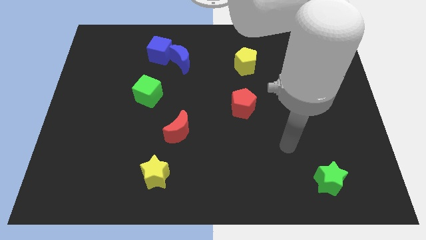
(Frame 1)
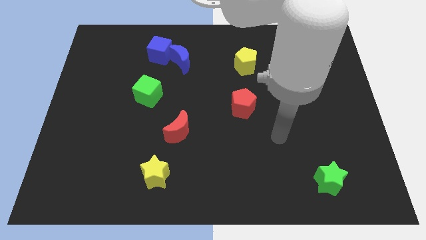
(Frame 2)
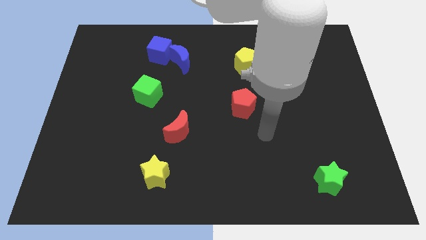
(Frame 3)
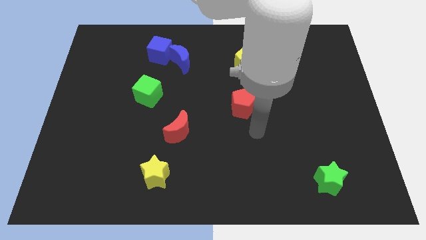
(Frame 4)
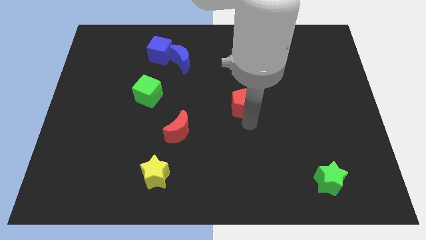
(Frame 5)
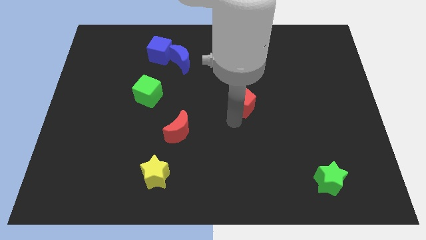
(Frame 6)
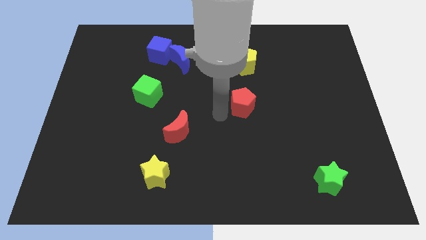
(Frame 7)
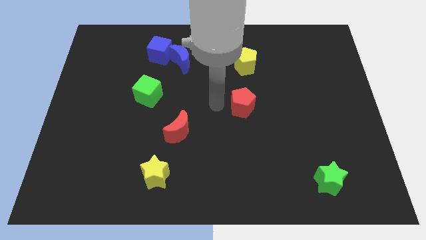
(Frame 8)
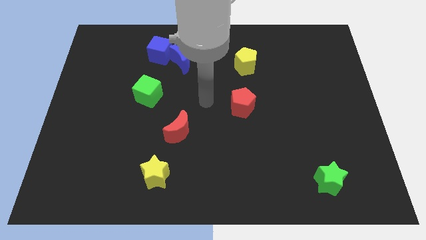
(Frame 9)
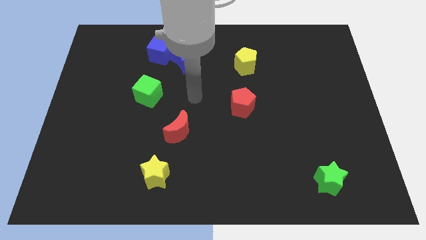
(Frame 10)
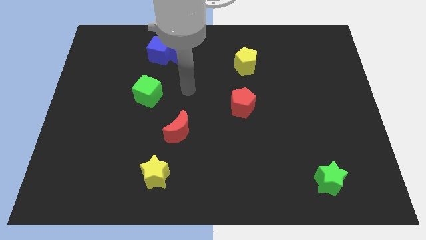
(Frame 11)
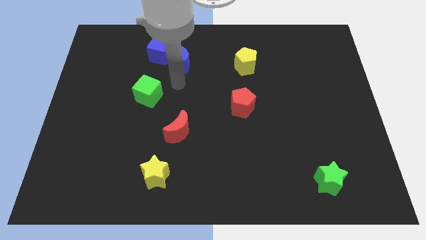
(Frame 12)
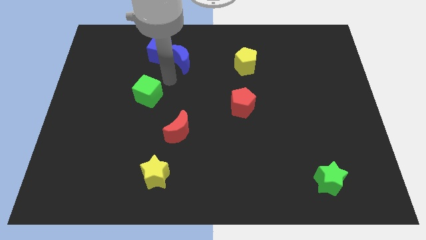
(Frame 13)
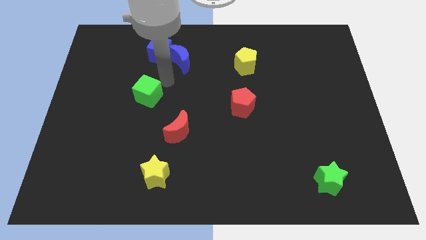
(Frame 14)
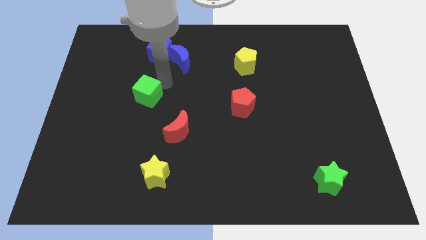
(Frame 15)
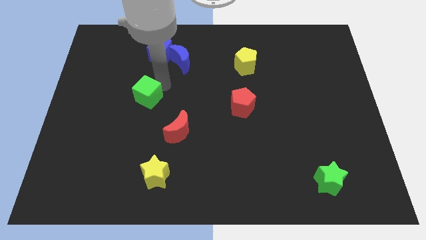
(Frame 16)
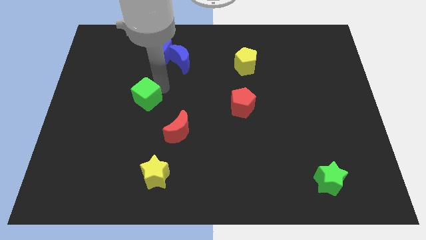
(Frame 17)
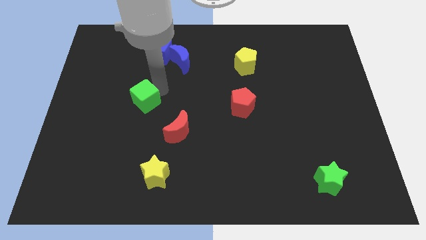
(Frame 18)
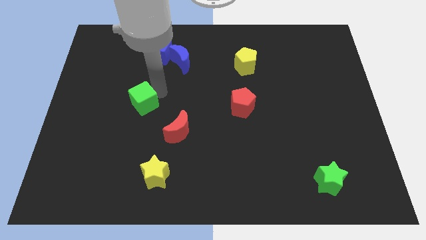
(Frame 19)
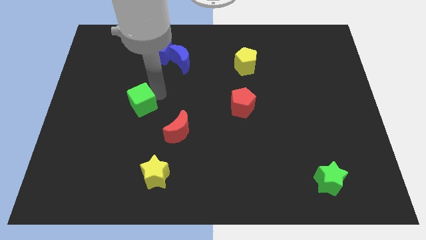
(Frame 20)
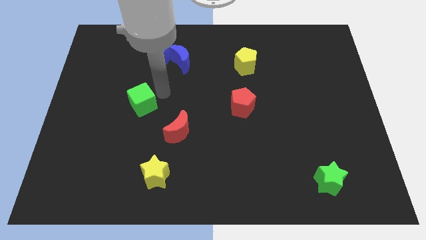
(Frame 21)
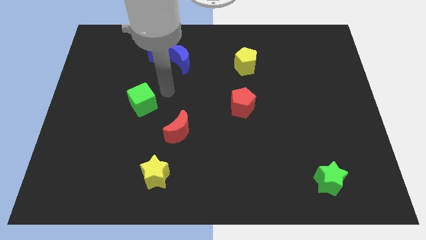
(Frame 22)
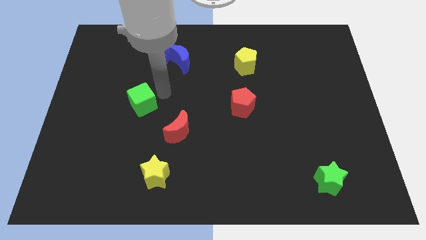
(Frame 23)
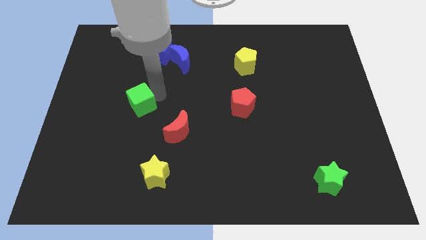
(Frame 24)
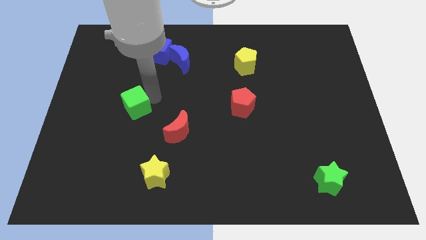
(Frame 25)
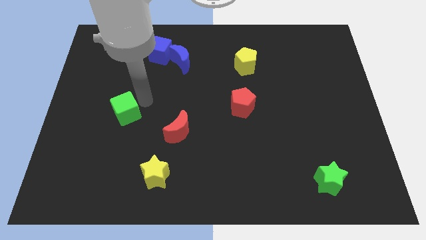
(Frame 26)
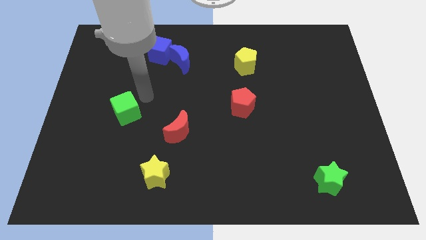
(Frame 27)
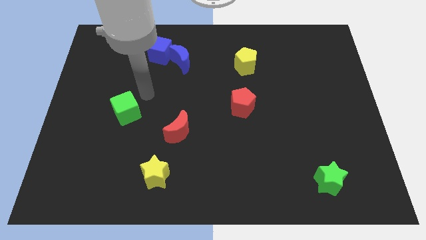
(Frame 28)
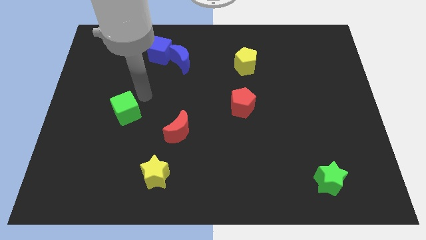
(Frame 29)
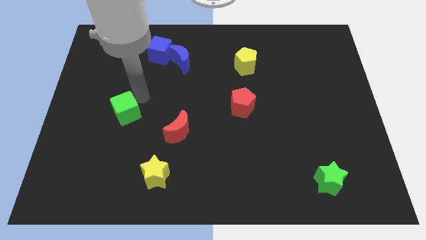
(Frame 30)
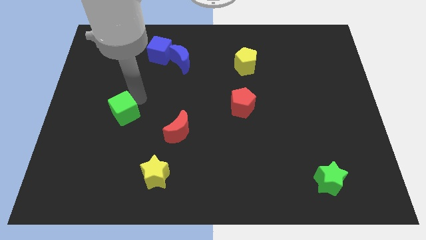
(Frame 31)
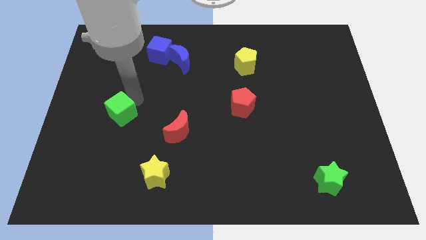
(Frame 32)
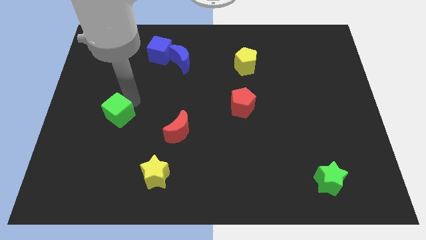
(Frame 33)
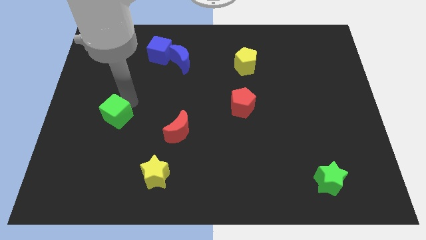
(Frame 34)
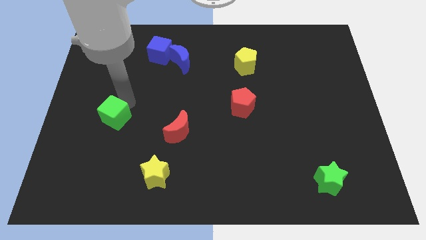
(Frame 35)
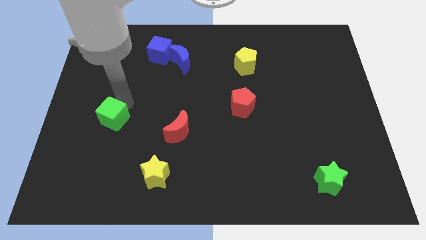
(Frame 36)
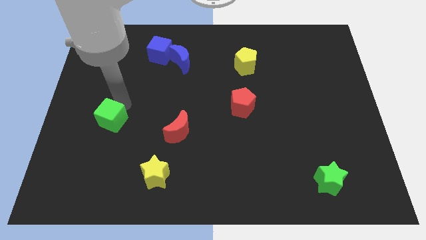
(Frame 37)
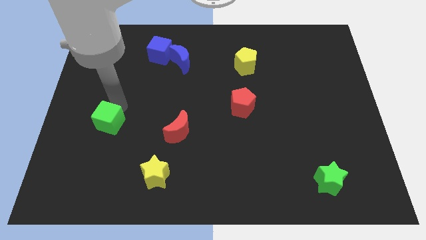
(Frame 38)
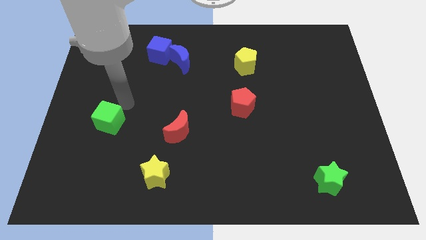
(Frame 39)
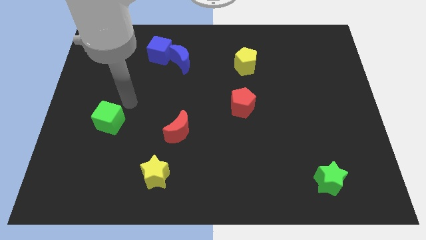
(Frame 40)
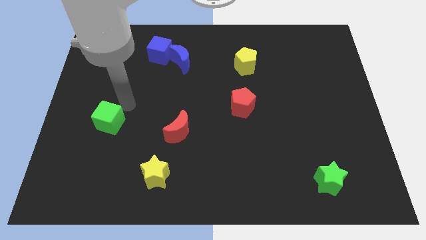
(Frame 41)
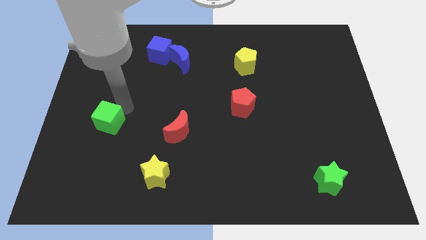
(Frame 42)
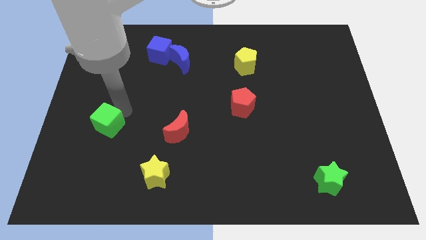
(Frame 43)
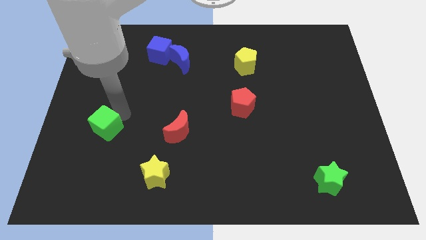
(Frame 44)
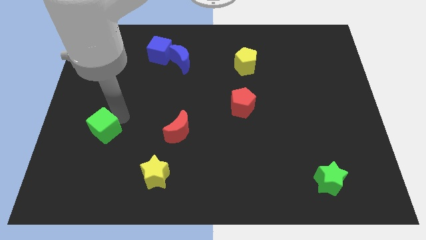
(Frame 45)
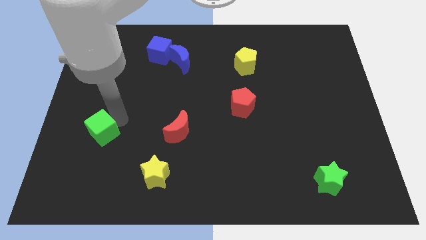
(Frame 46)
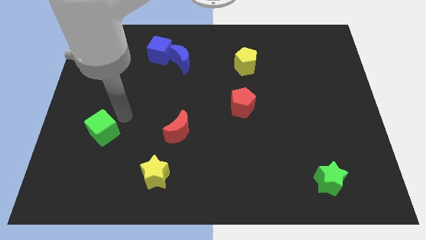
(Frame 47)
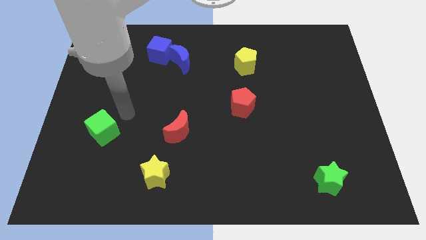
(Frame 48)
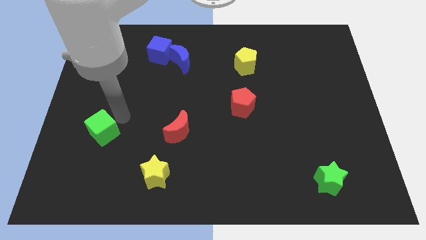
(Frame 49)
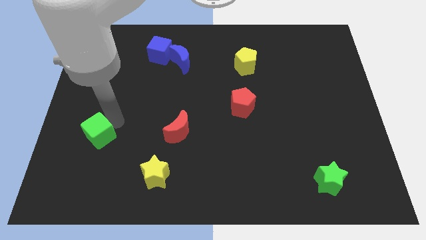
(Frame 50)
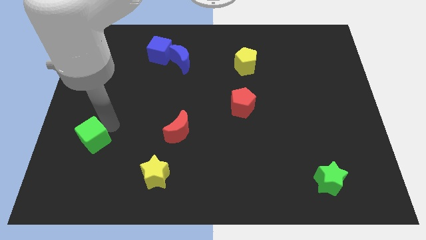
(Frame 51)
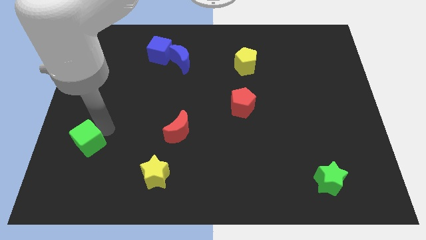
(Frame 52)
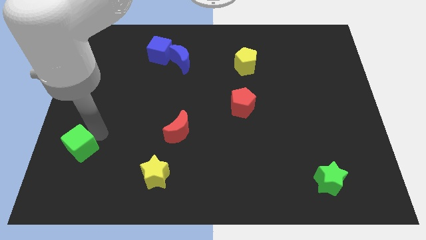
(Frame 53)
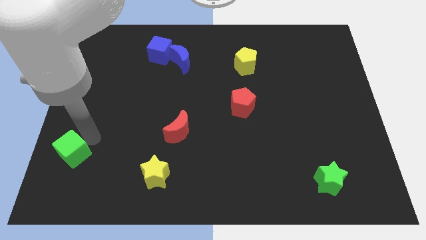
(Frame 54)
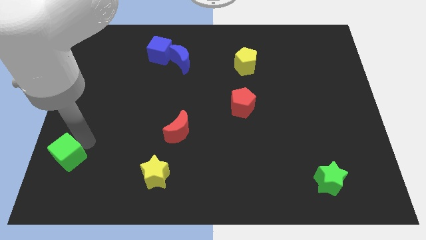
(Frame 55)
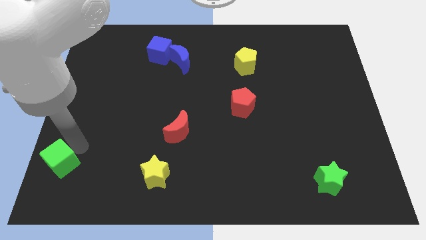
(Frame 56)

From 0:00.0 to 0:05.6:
slide the green cube to the bottom left

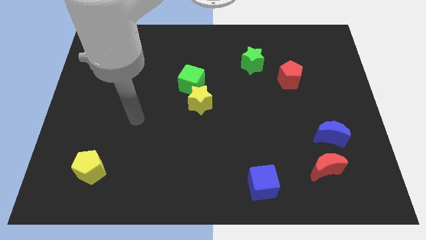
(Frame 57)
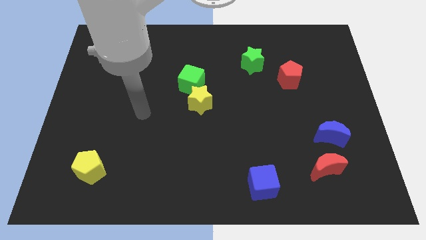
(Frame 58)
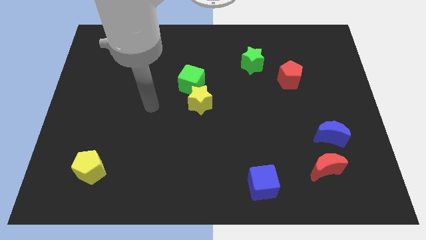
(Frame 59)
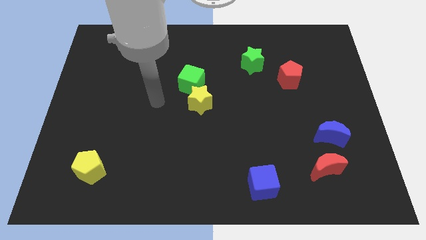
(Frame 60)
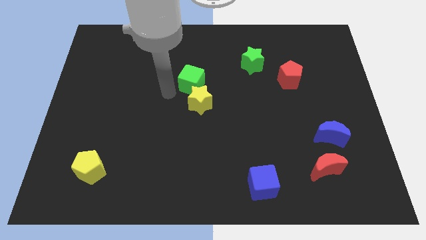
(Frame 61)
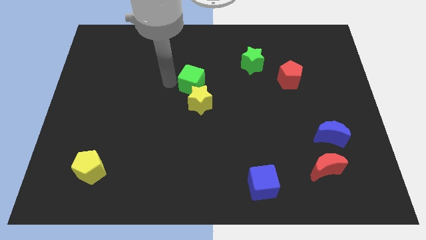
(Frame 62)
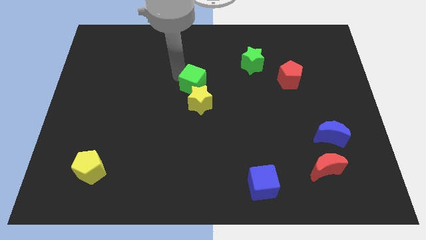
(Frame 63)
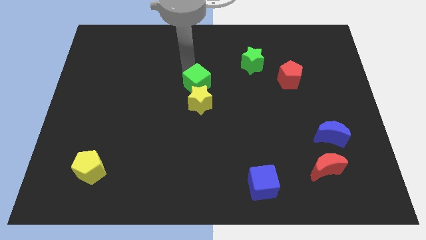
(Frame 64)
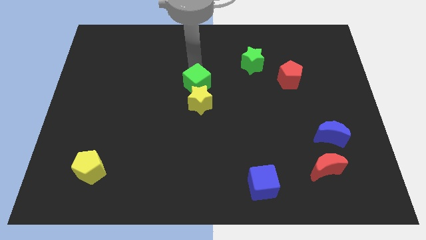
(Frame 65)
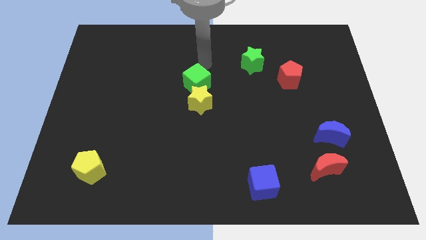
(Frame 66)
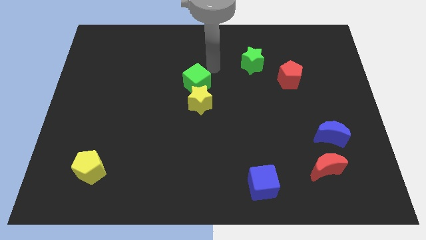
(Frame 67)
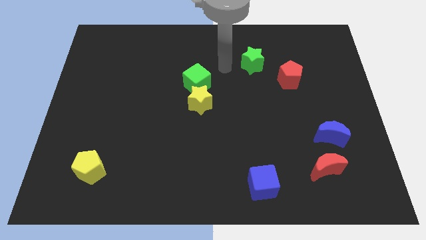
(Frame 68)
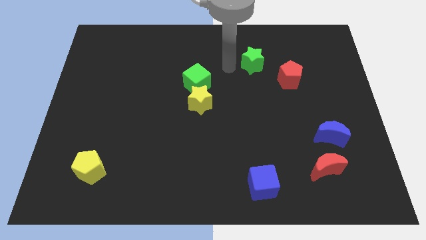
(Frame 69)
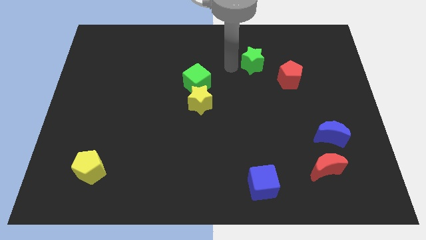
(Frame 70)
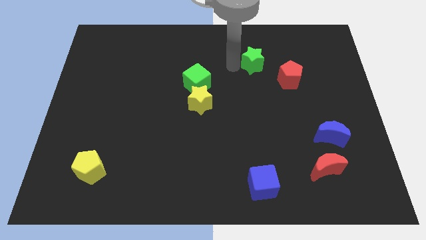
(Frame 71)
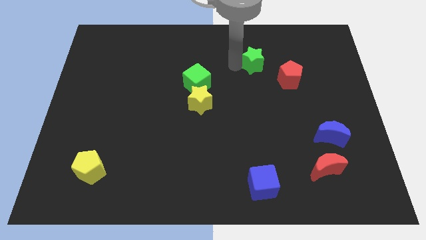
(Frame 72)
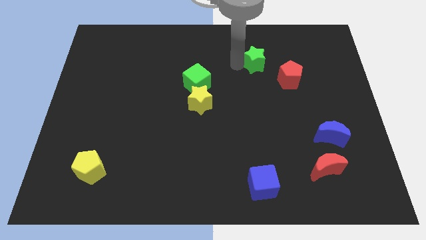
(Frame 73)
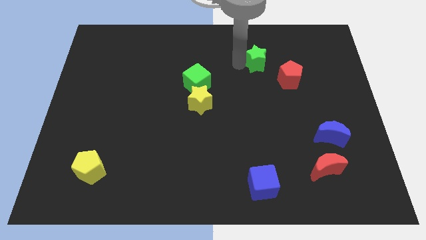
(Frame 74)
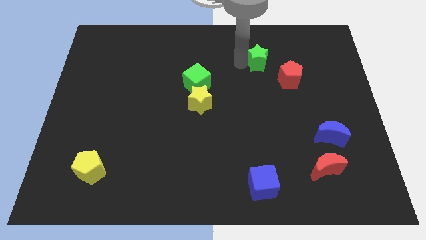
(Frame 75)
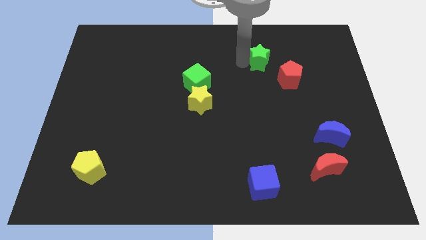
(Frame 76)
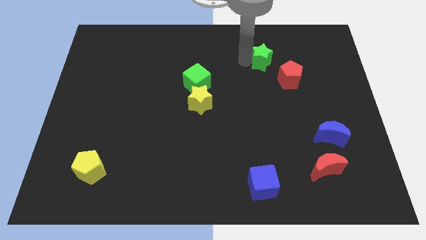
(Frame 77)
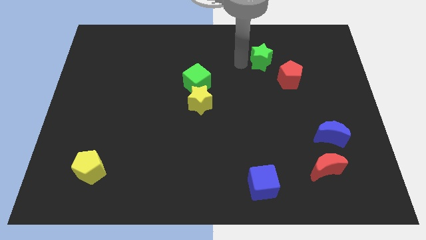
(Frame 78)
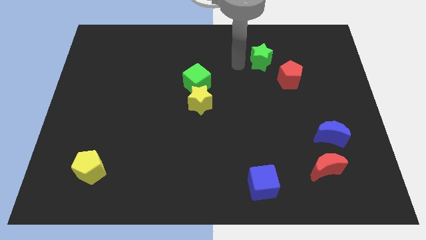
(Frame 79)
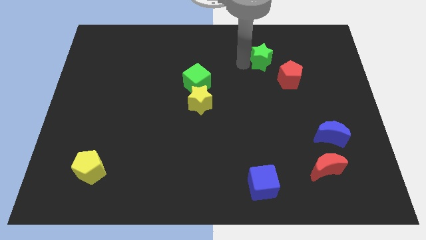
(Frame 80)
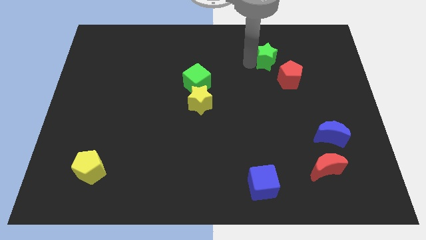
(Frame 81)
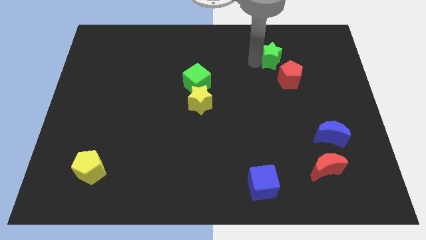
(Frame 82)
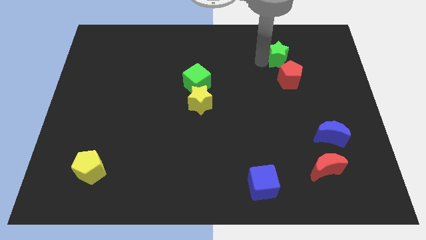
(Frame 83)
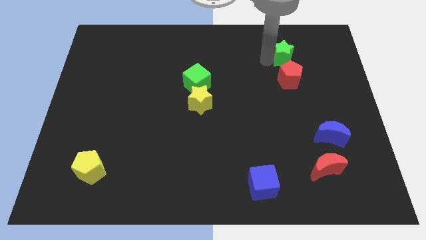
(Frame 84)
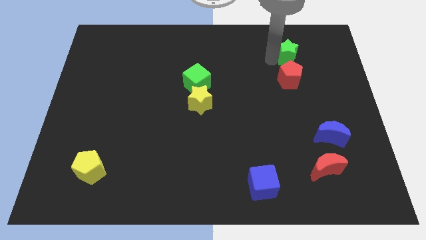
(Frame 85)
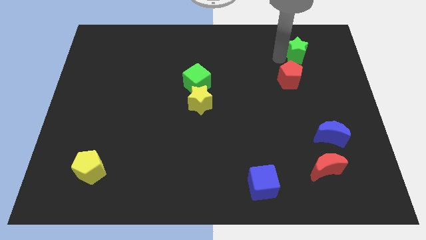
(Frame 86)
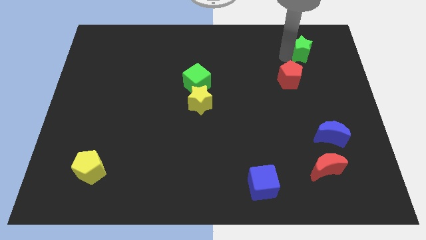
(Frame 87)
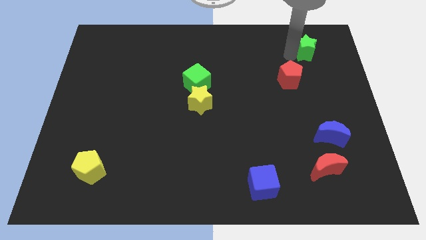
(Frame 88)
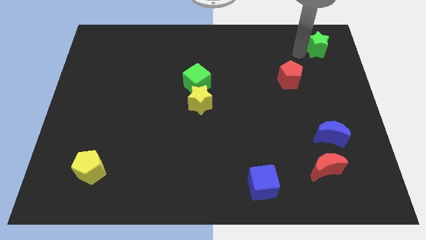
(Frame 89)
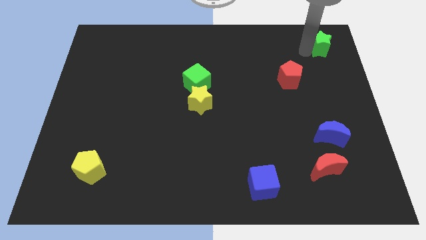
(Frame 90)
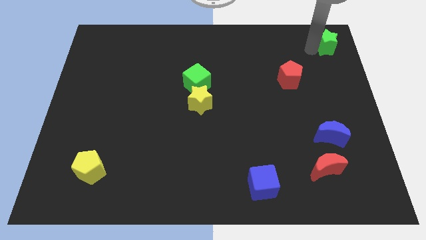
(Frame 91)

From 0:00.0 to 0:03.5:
slide the green star to the upper right corner
